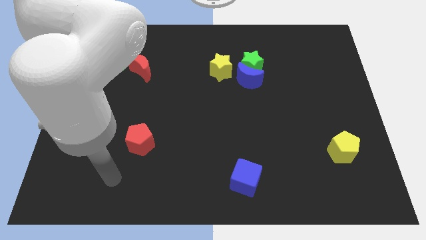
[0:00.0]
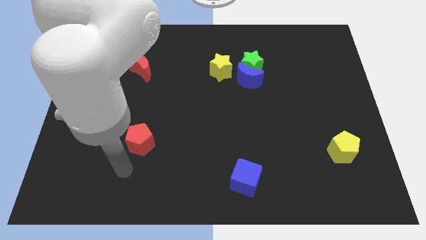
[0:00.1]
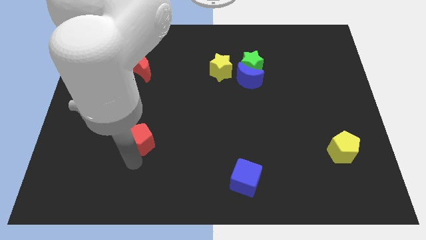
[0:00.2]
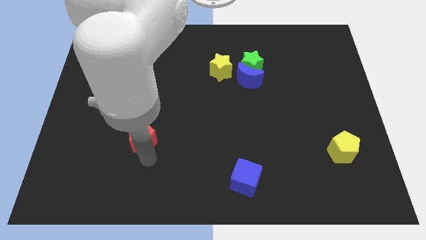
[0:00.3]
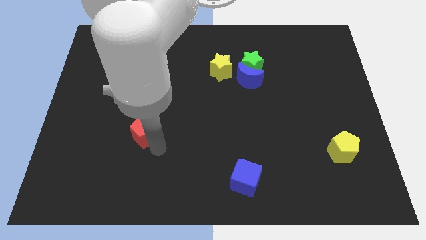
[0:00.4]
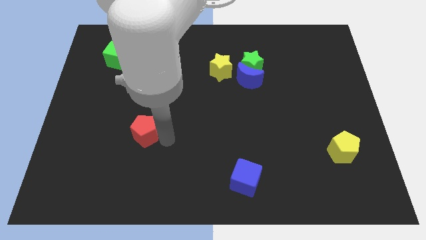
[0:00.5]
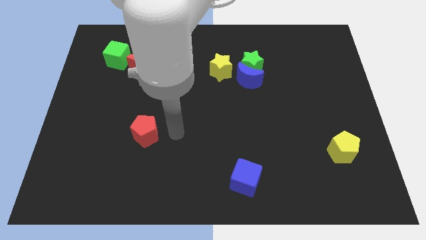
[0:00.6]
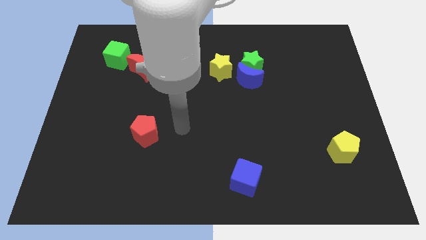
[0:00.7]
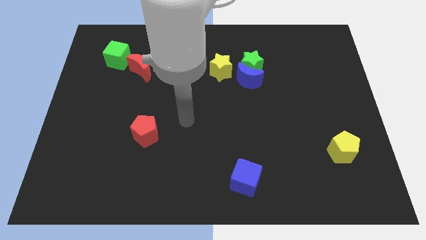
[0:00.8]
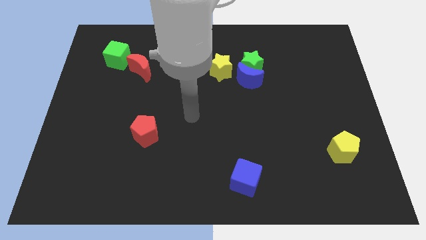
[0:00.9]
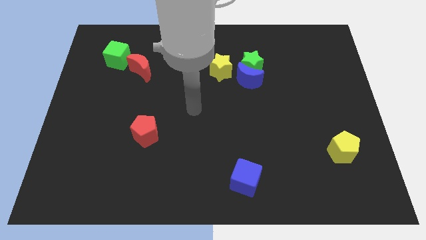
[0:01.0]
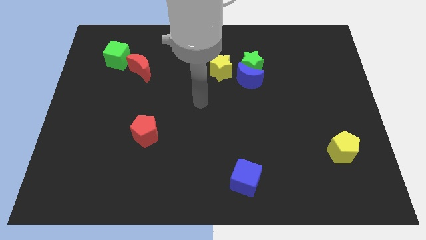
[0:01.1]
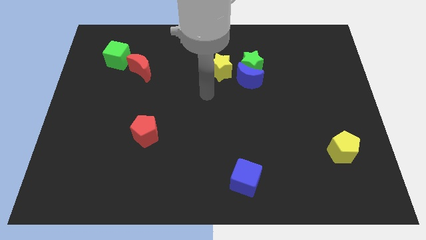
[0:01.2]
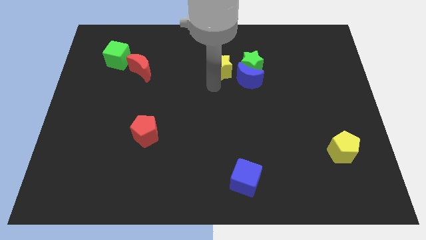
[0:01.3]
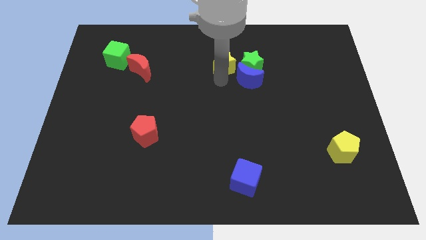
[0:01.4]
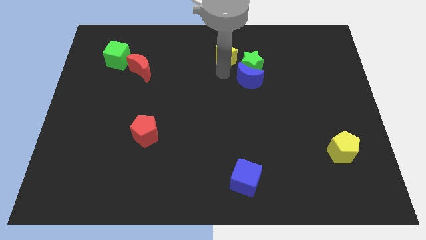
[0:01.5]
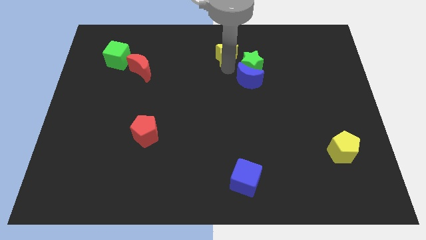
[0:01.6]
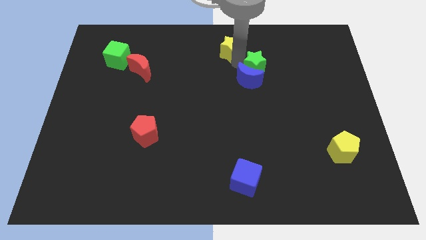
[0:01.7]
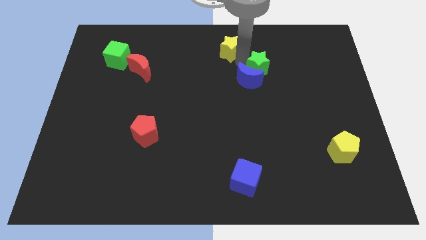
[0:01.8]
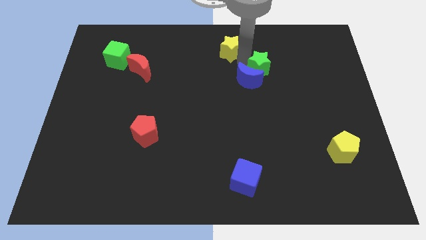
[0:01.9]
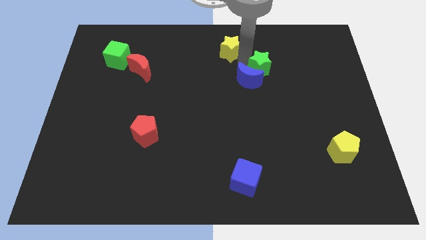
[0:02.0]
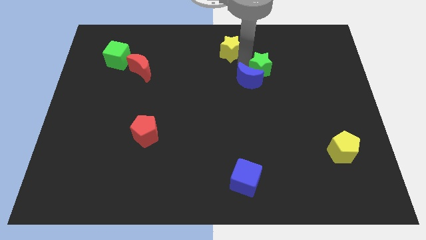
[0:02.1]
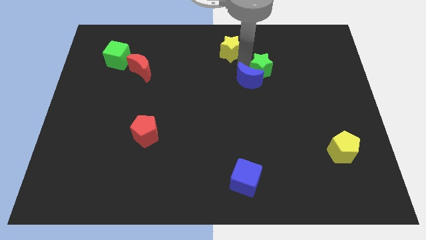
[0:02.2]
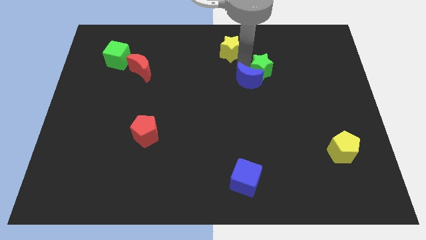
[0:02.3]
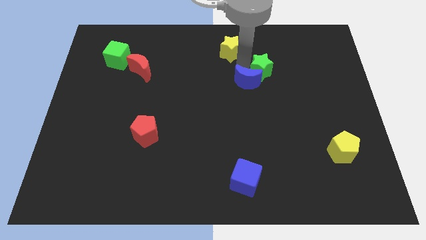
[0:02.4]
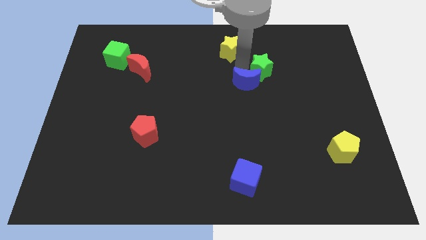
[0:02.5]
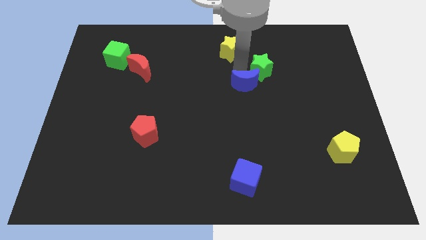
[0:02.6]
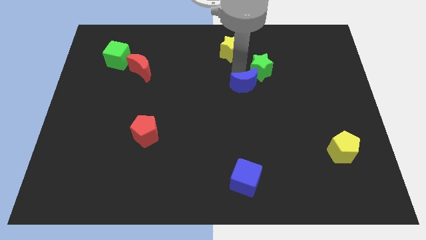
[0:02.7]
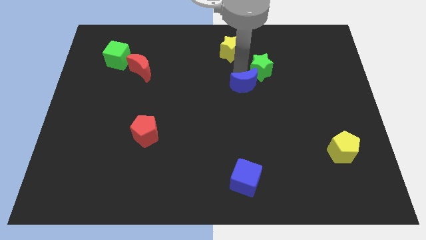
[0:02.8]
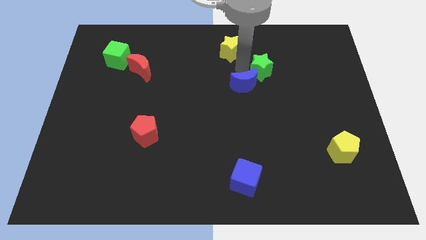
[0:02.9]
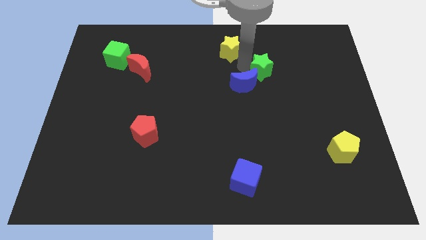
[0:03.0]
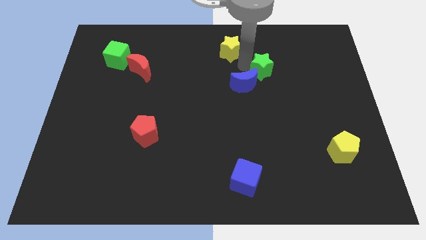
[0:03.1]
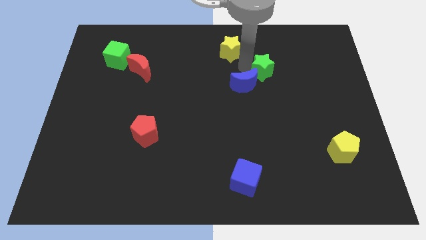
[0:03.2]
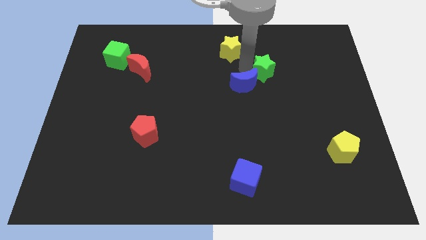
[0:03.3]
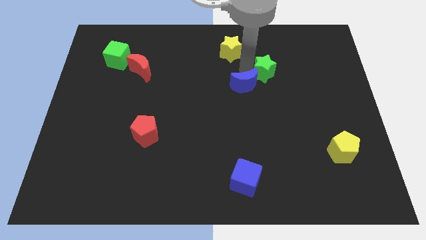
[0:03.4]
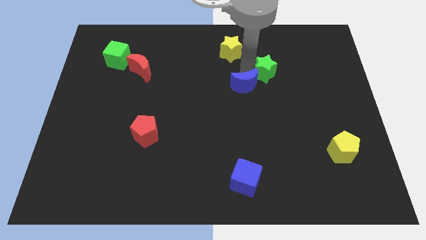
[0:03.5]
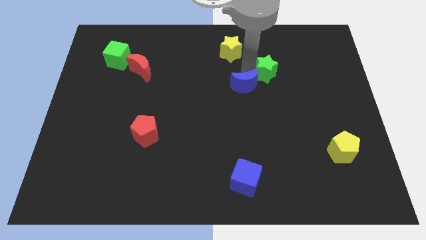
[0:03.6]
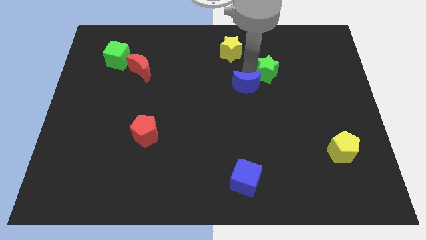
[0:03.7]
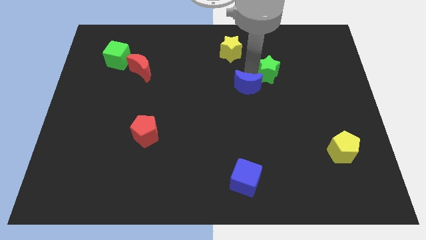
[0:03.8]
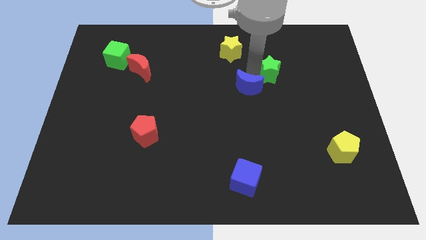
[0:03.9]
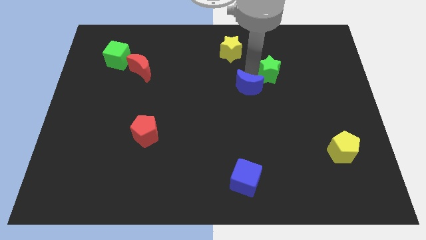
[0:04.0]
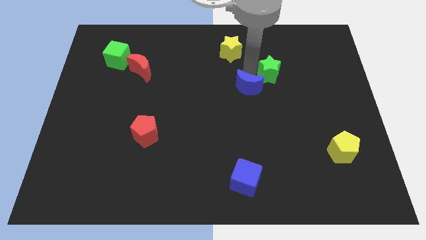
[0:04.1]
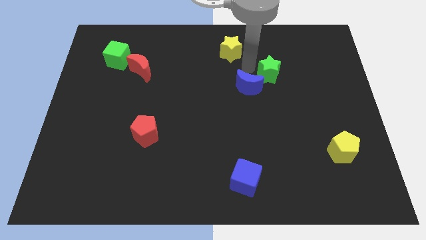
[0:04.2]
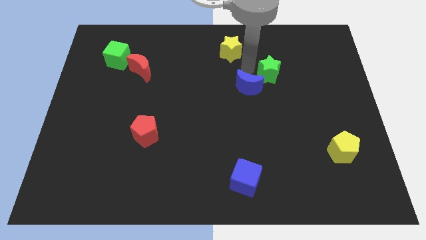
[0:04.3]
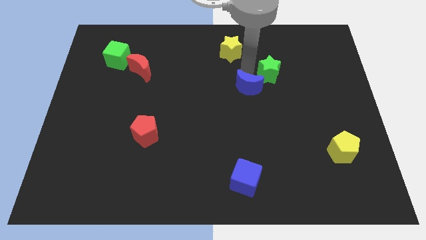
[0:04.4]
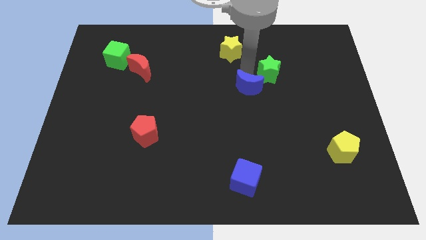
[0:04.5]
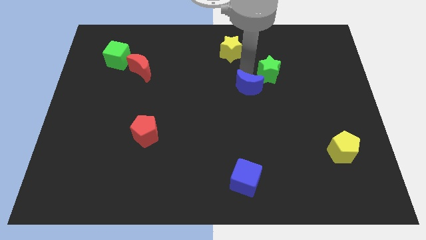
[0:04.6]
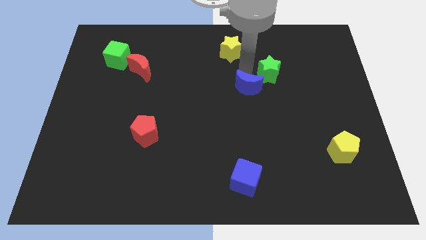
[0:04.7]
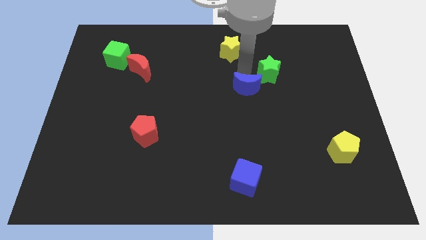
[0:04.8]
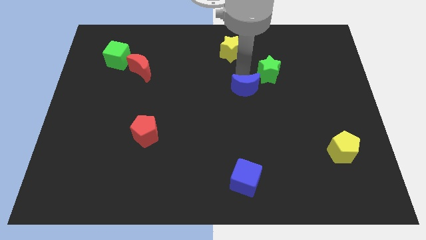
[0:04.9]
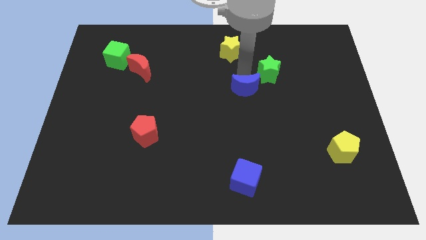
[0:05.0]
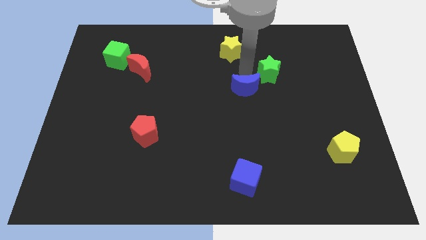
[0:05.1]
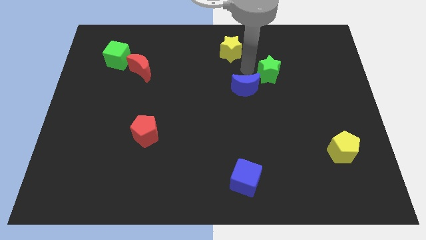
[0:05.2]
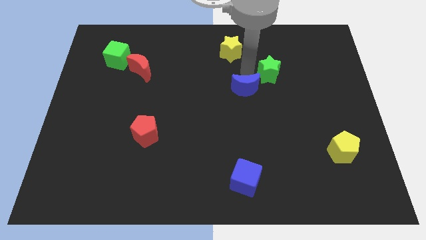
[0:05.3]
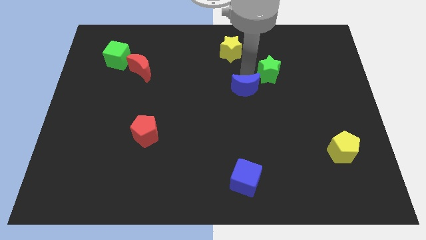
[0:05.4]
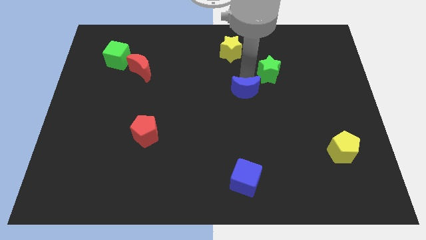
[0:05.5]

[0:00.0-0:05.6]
move the blue moon away from the green star and yellow star

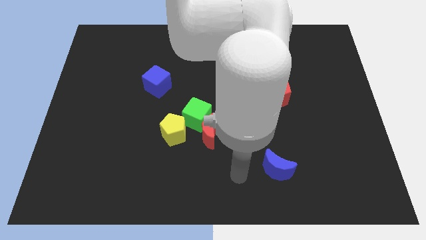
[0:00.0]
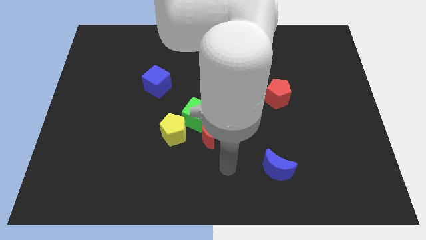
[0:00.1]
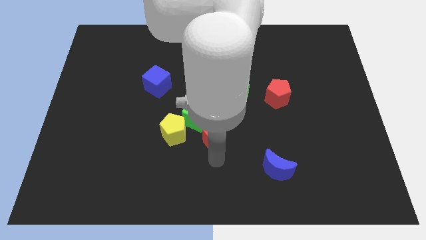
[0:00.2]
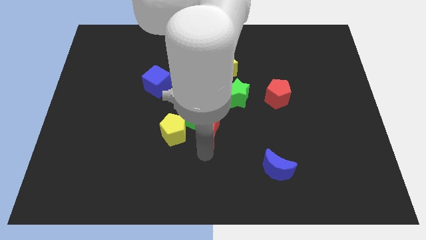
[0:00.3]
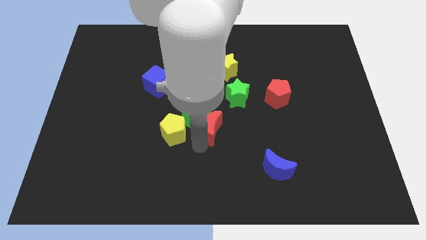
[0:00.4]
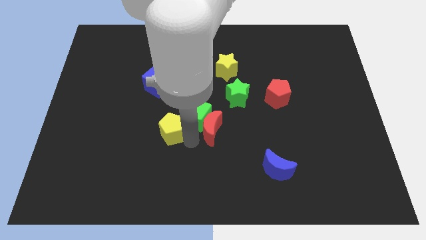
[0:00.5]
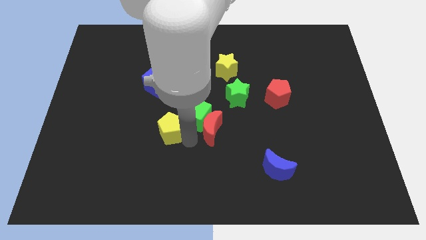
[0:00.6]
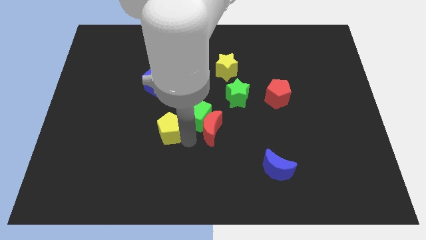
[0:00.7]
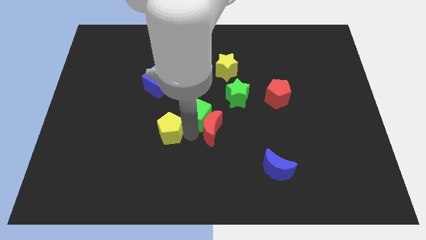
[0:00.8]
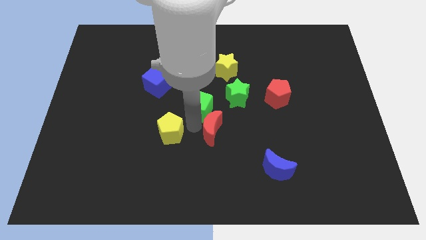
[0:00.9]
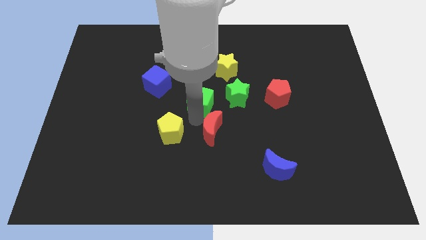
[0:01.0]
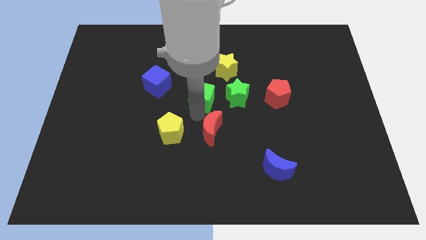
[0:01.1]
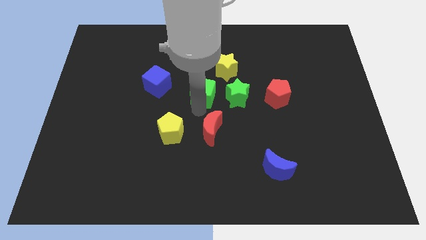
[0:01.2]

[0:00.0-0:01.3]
move the green cube away from the red moon and yellow pentagon

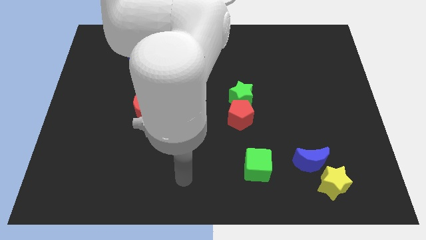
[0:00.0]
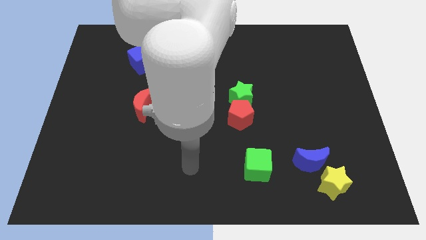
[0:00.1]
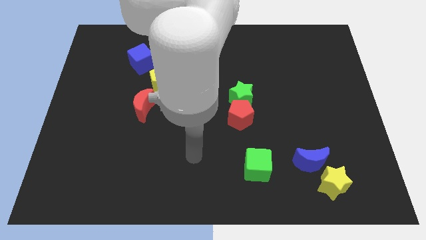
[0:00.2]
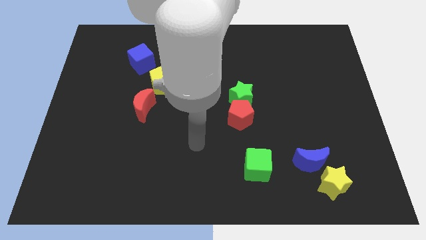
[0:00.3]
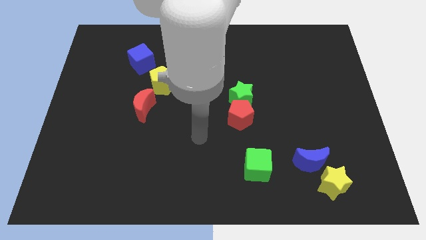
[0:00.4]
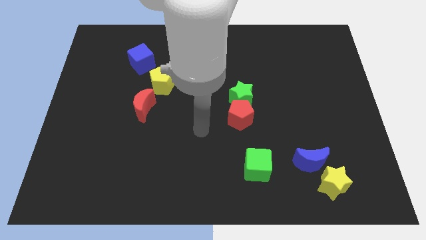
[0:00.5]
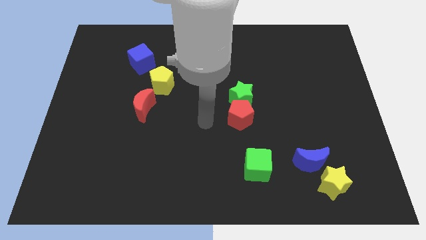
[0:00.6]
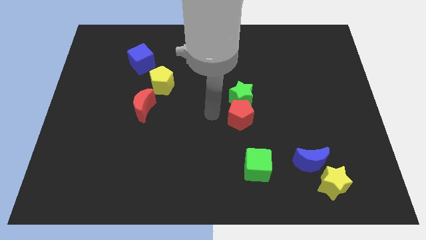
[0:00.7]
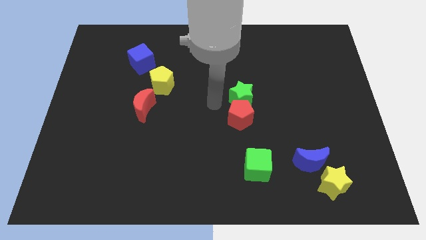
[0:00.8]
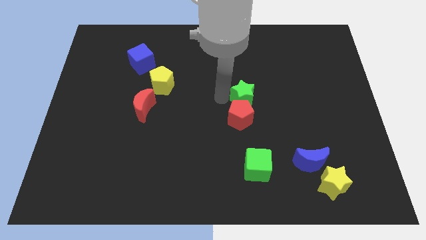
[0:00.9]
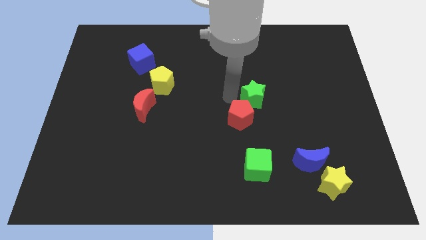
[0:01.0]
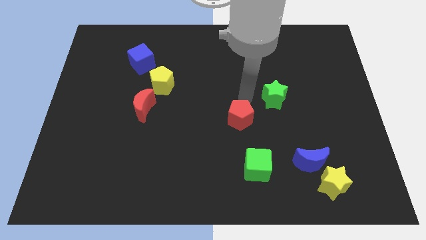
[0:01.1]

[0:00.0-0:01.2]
move the red pentagon away from the green star

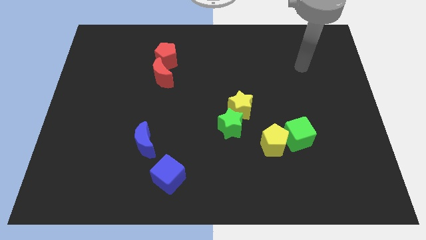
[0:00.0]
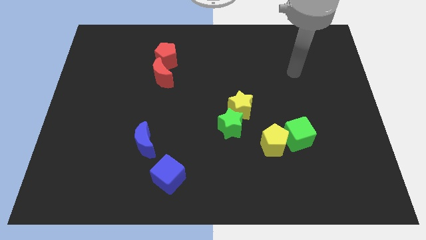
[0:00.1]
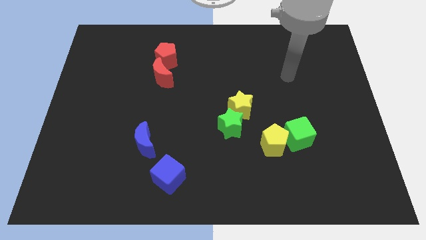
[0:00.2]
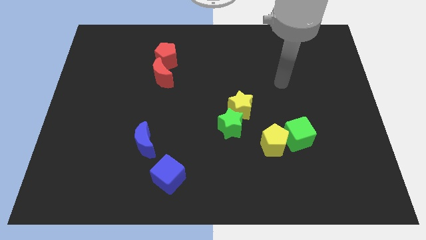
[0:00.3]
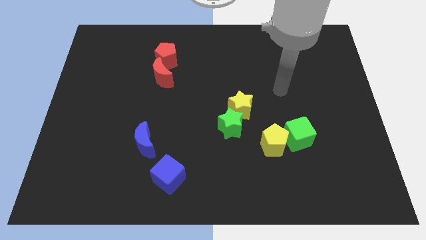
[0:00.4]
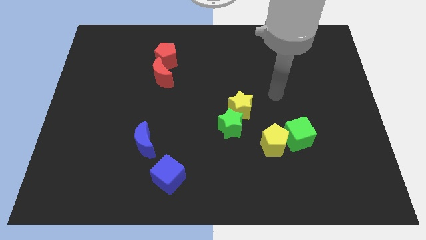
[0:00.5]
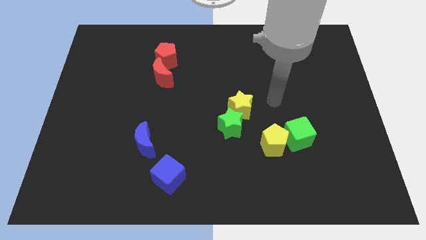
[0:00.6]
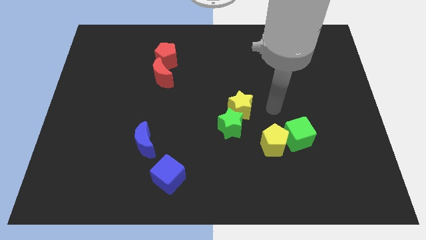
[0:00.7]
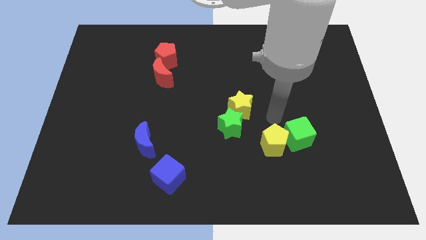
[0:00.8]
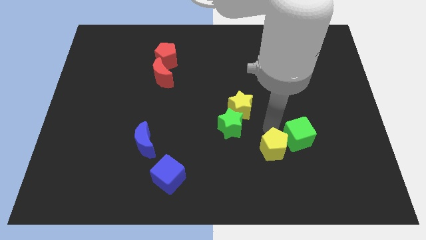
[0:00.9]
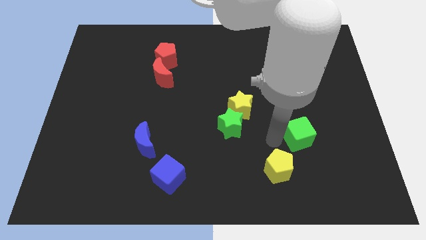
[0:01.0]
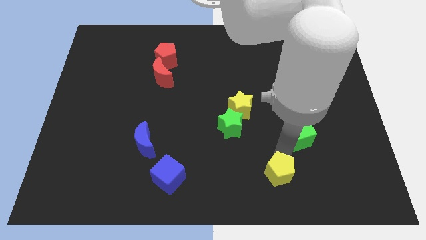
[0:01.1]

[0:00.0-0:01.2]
move the green cube away from the yellow pentagon
